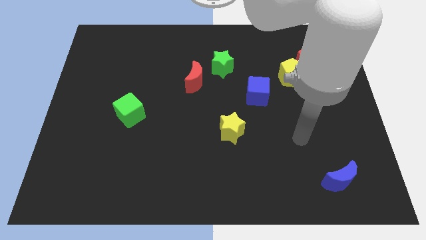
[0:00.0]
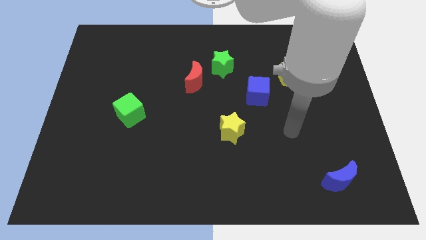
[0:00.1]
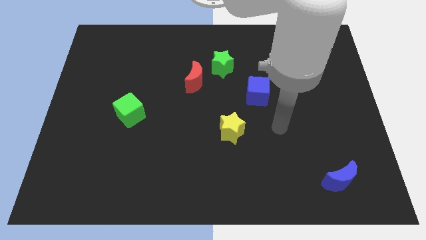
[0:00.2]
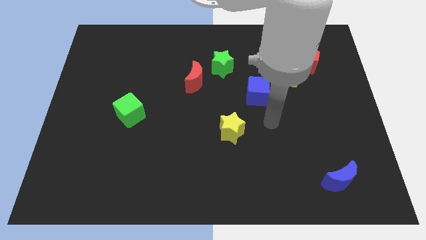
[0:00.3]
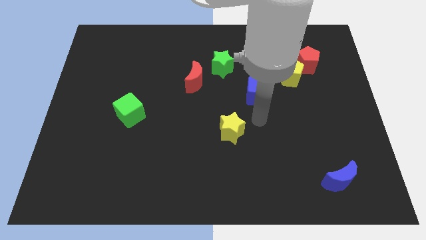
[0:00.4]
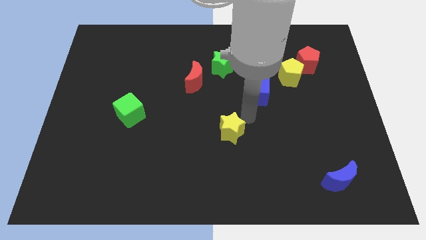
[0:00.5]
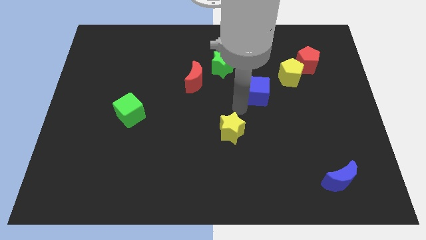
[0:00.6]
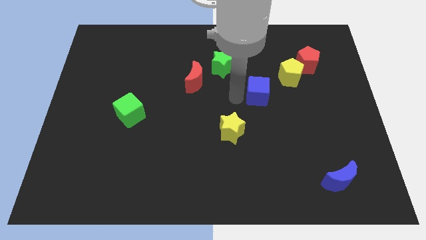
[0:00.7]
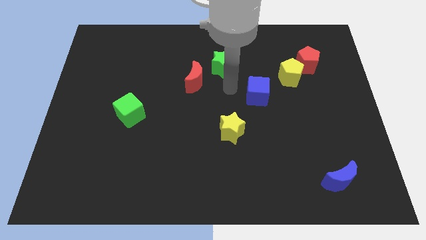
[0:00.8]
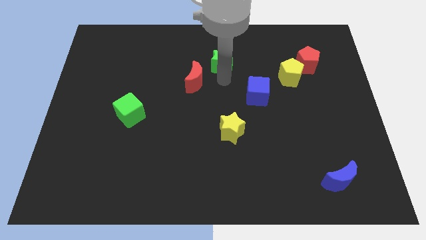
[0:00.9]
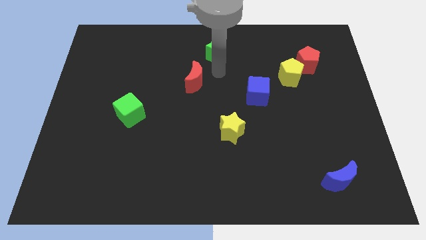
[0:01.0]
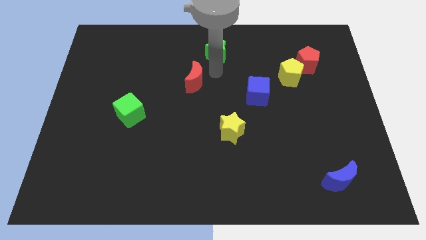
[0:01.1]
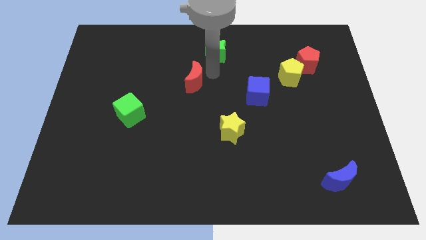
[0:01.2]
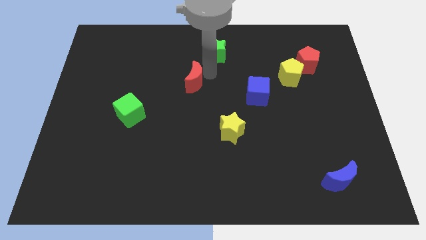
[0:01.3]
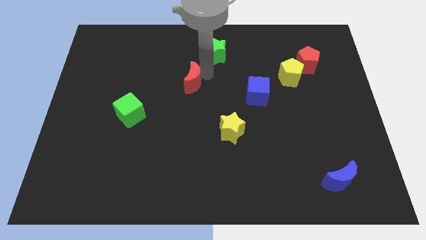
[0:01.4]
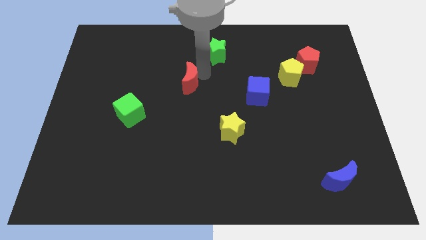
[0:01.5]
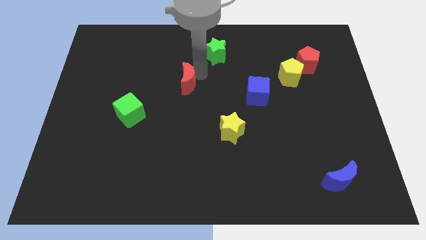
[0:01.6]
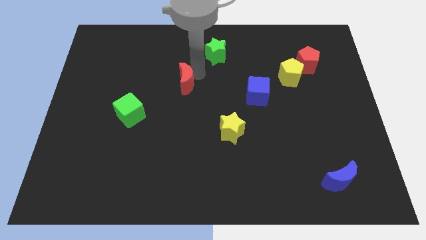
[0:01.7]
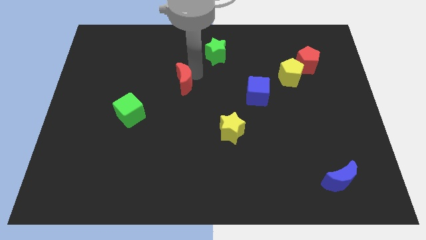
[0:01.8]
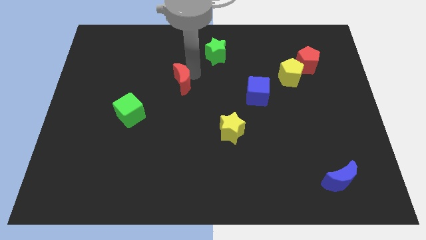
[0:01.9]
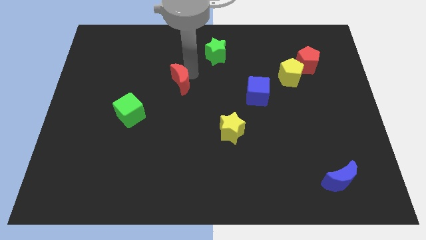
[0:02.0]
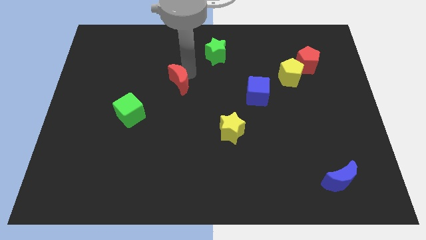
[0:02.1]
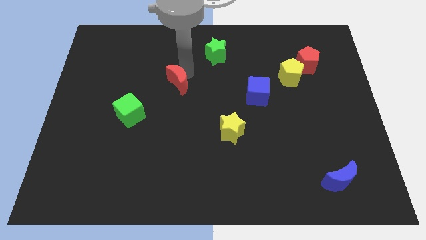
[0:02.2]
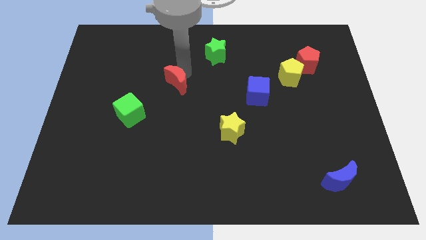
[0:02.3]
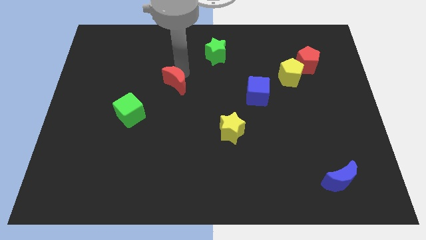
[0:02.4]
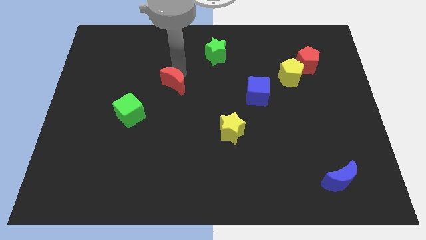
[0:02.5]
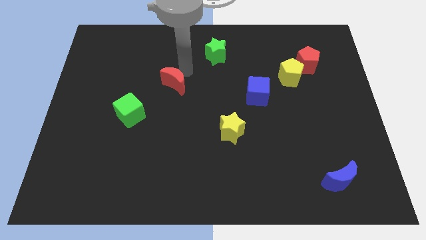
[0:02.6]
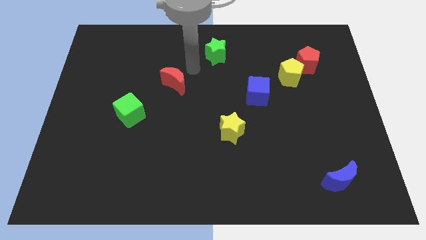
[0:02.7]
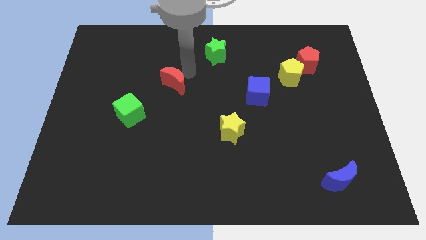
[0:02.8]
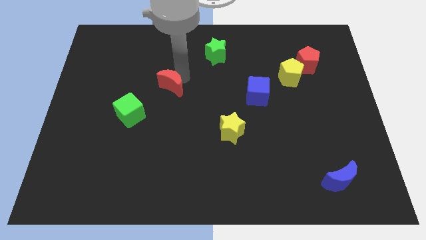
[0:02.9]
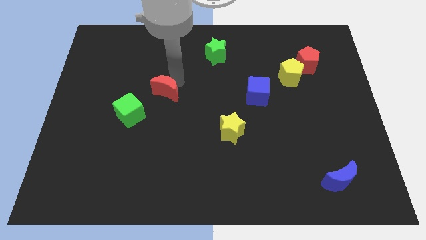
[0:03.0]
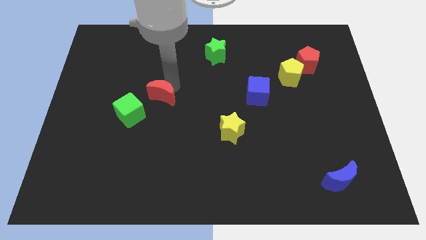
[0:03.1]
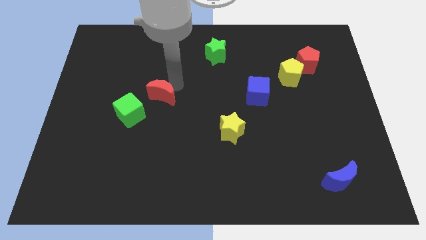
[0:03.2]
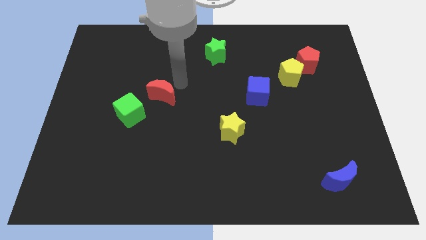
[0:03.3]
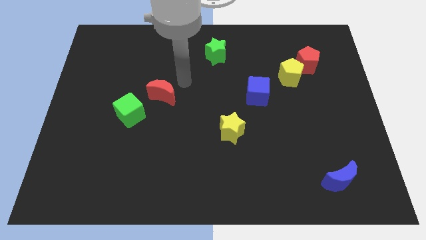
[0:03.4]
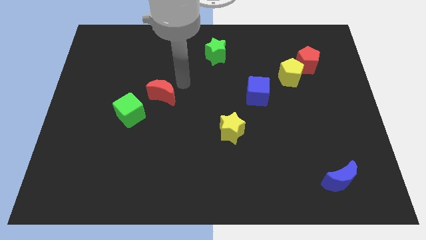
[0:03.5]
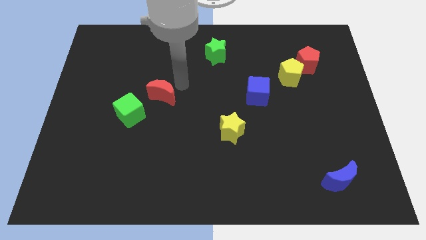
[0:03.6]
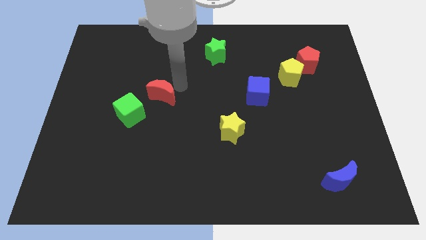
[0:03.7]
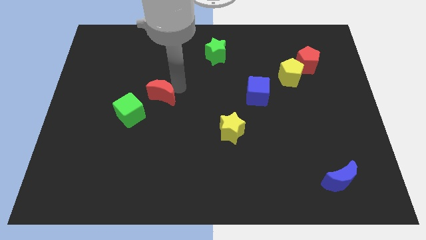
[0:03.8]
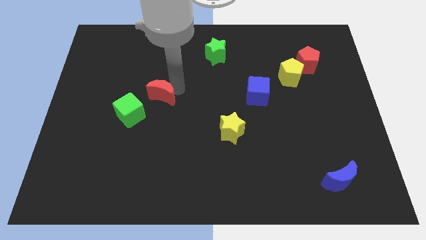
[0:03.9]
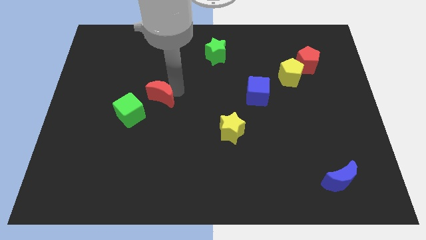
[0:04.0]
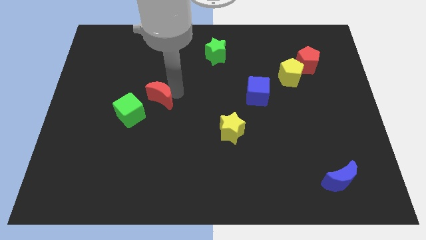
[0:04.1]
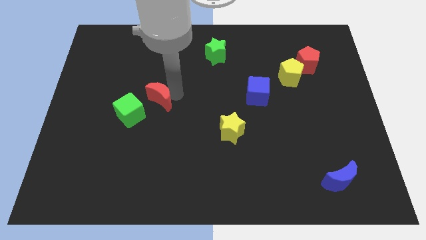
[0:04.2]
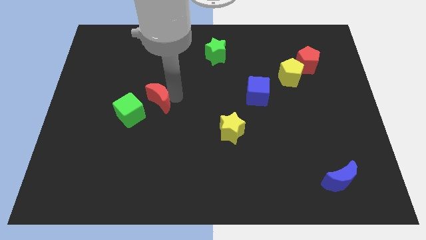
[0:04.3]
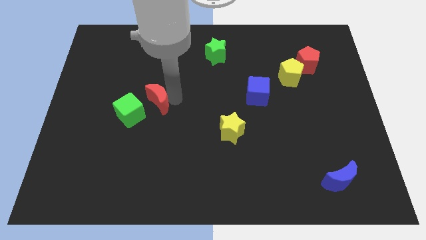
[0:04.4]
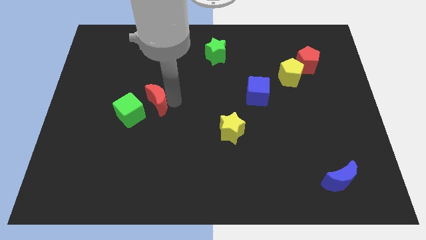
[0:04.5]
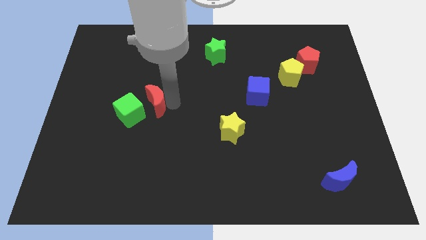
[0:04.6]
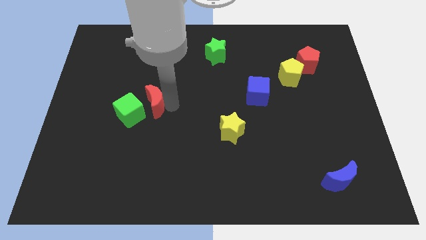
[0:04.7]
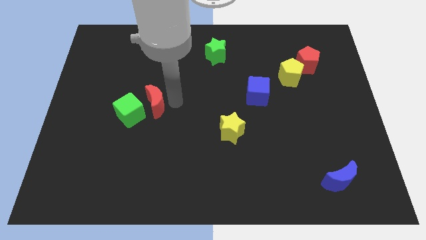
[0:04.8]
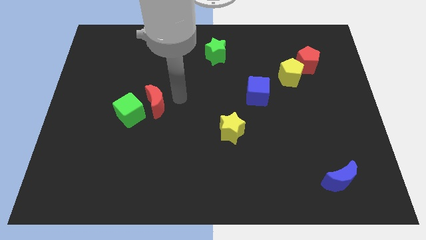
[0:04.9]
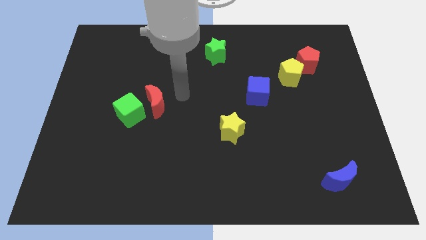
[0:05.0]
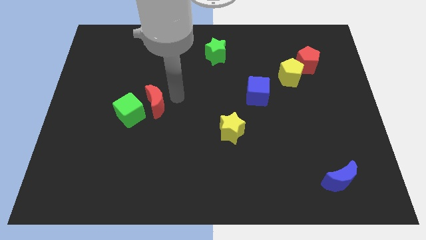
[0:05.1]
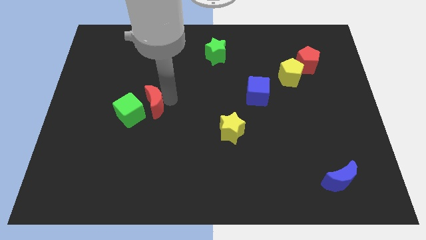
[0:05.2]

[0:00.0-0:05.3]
push the red moon close to the green cube

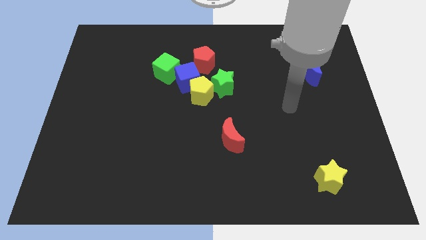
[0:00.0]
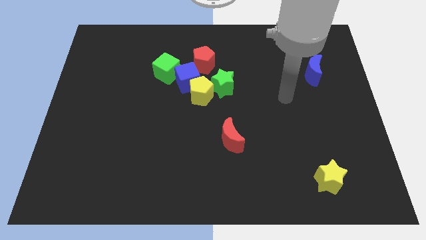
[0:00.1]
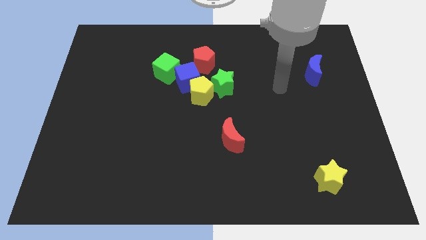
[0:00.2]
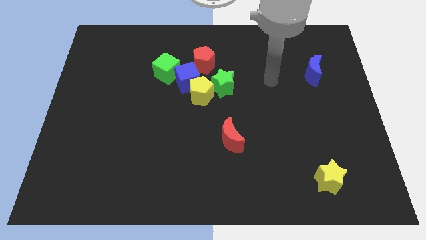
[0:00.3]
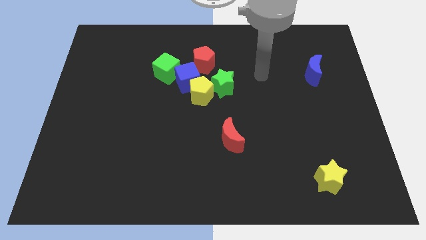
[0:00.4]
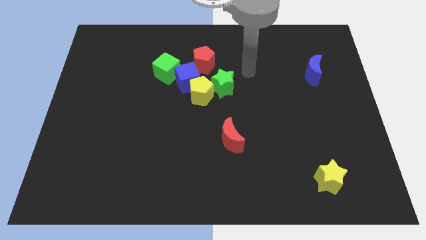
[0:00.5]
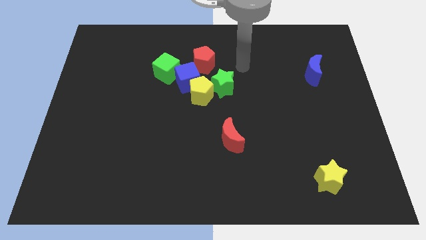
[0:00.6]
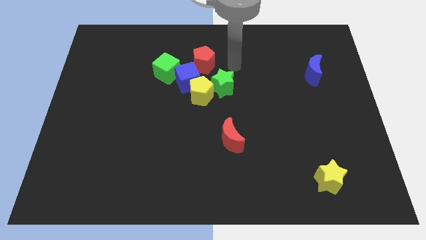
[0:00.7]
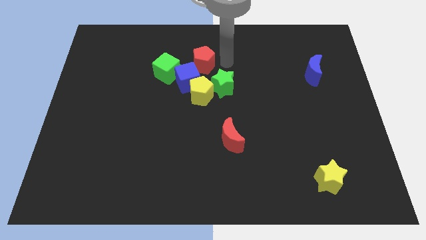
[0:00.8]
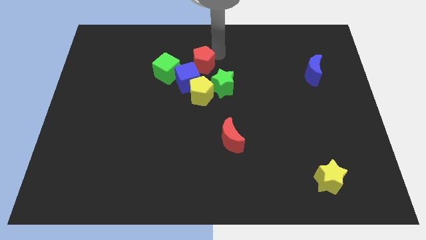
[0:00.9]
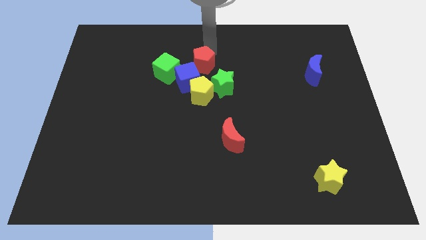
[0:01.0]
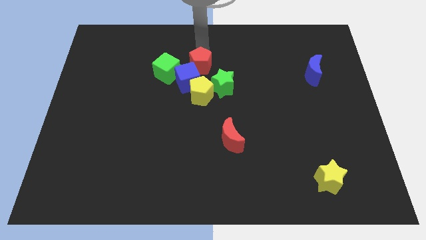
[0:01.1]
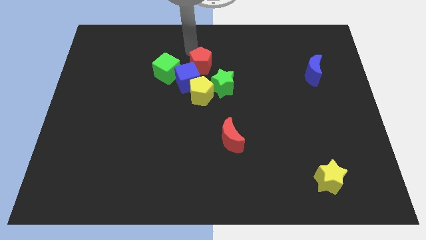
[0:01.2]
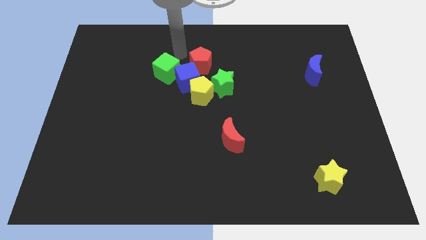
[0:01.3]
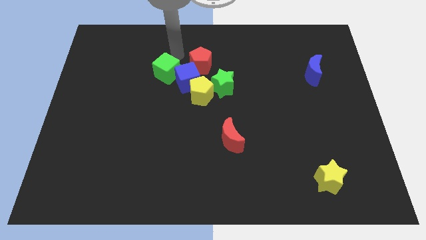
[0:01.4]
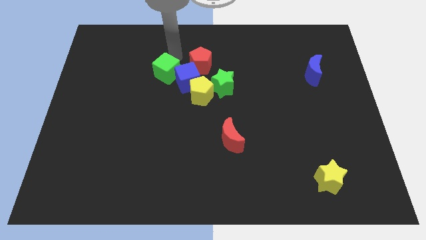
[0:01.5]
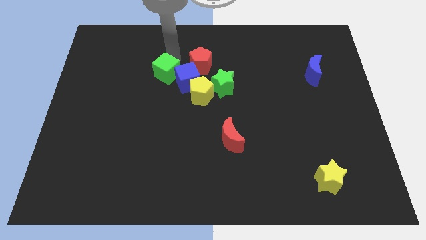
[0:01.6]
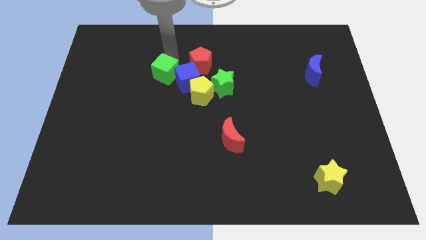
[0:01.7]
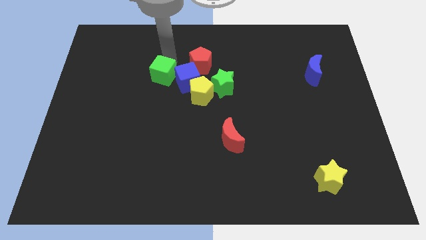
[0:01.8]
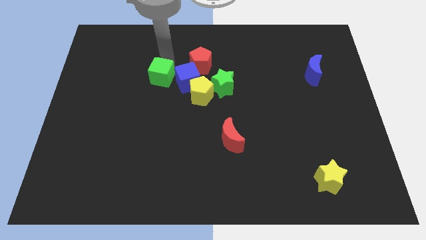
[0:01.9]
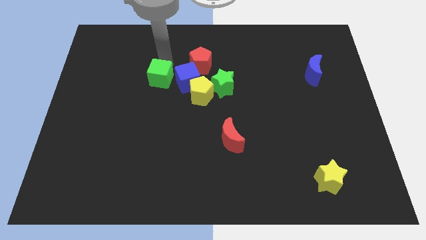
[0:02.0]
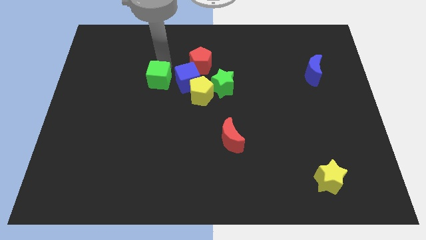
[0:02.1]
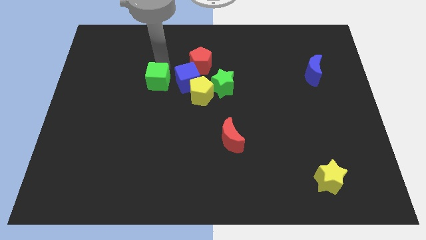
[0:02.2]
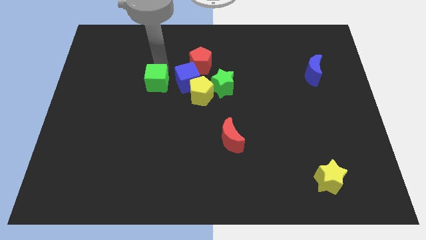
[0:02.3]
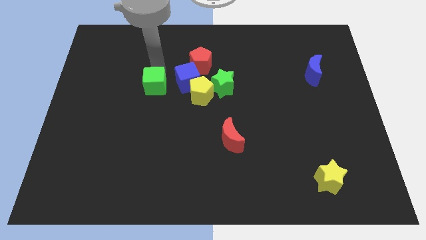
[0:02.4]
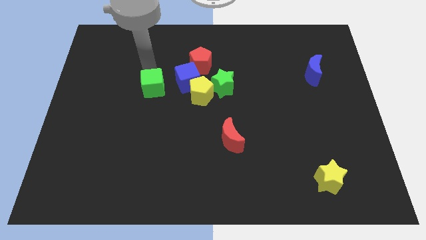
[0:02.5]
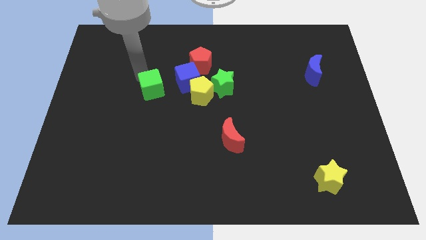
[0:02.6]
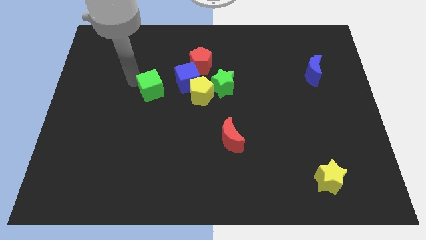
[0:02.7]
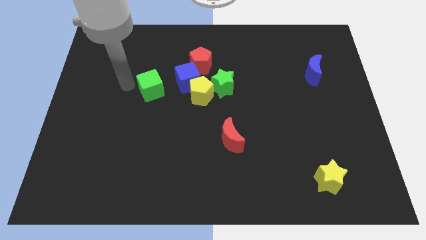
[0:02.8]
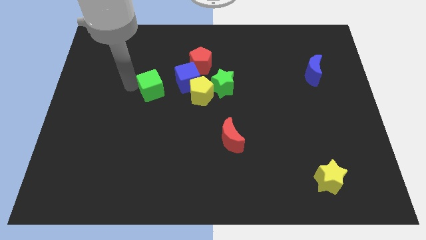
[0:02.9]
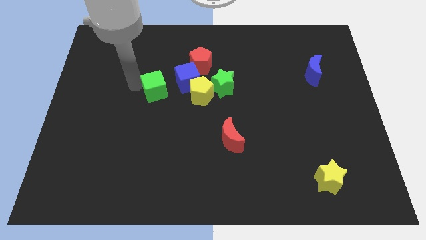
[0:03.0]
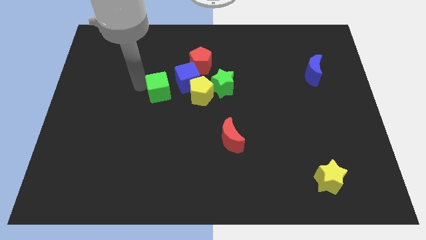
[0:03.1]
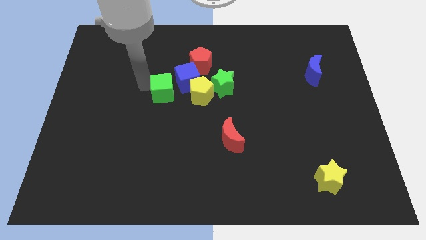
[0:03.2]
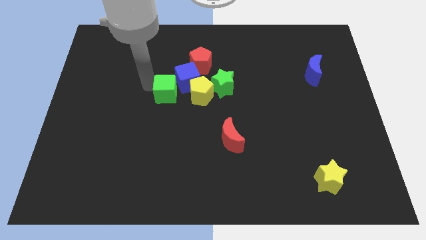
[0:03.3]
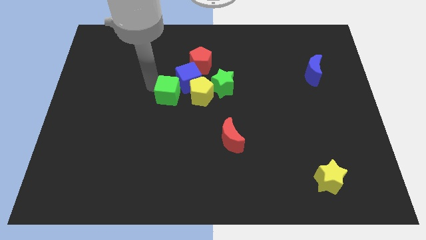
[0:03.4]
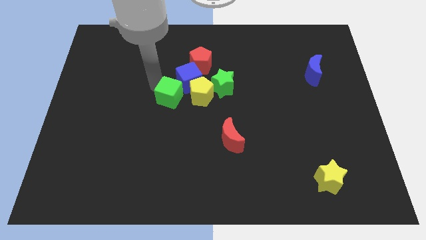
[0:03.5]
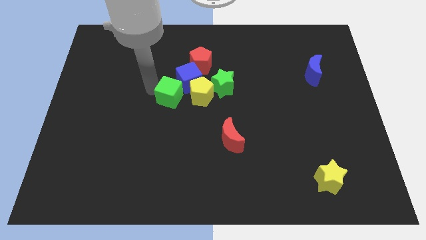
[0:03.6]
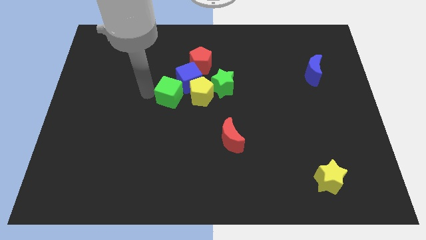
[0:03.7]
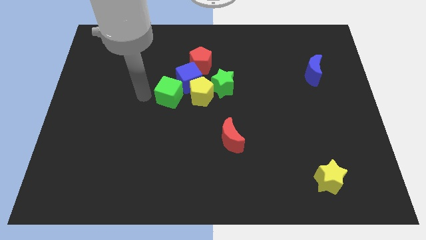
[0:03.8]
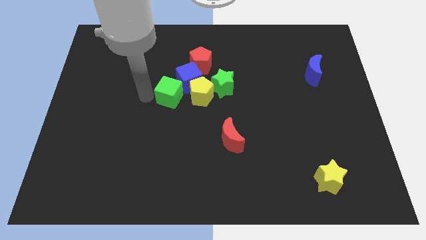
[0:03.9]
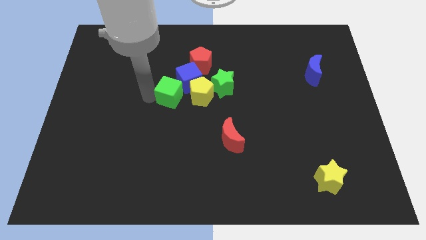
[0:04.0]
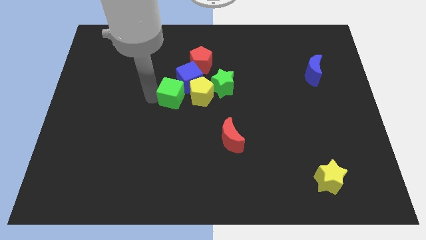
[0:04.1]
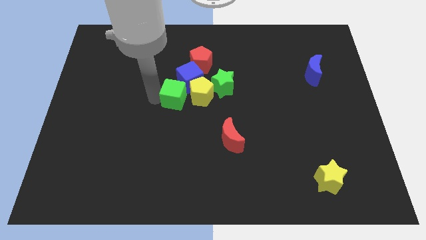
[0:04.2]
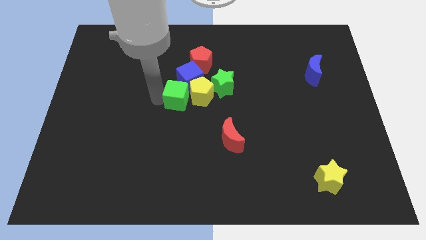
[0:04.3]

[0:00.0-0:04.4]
put the green cube towards the yellow pentagon
